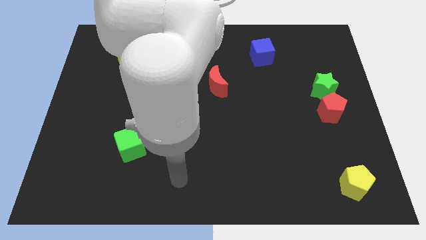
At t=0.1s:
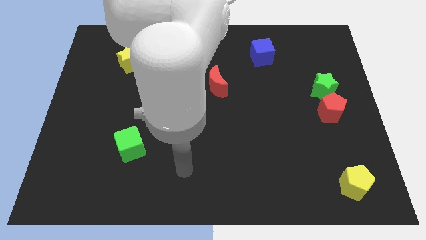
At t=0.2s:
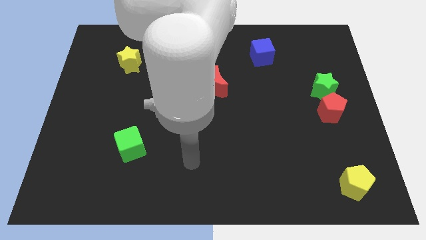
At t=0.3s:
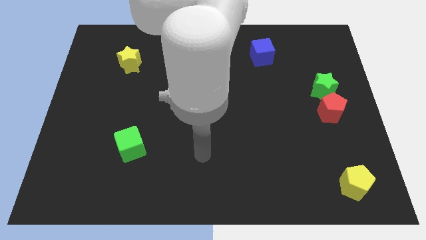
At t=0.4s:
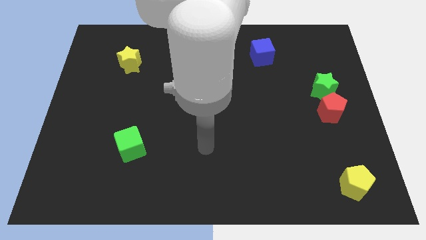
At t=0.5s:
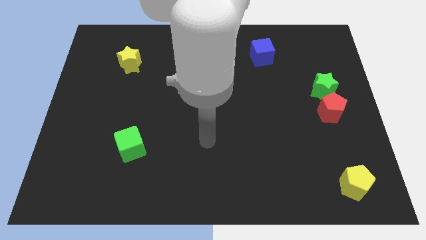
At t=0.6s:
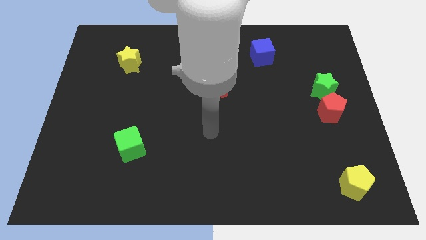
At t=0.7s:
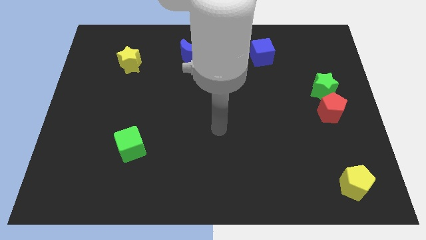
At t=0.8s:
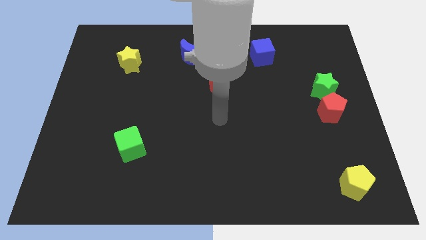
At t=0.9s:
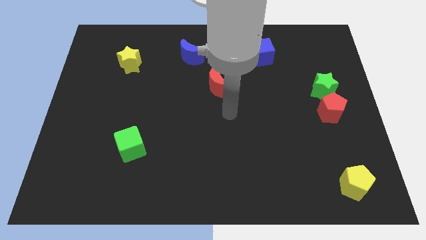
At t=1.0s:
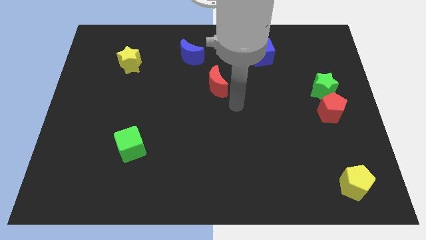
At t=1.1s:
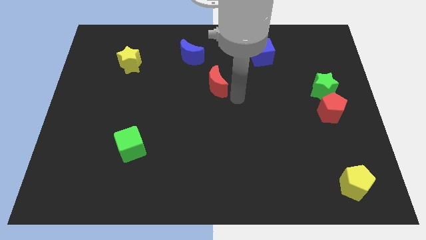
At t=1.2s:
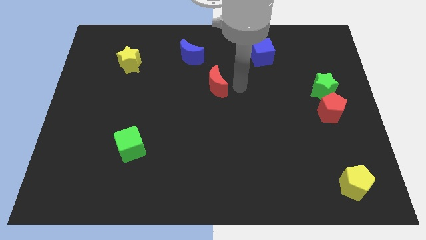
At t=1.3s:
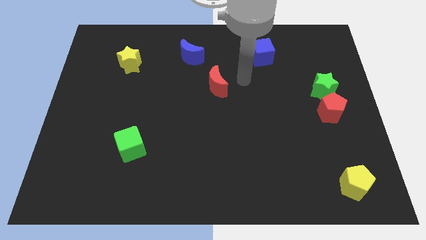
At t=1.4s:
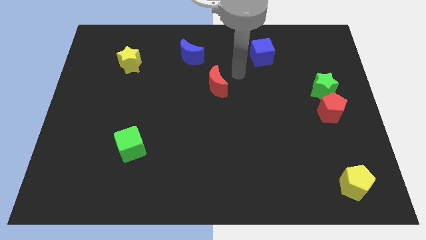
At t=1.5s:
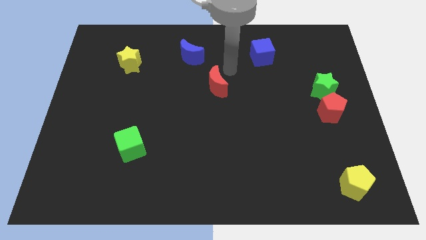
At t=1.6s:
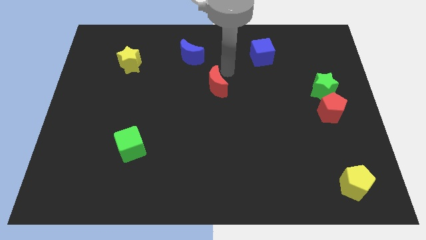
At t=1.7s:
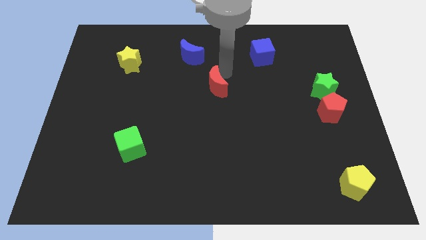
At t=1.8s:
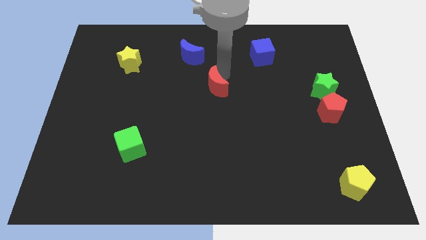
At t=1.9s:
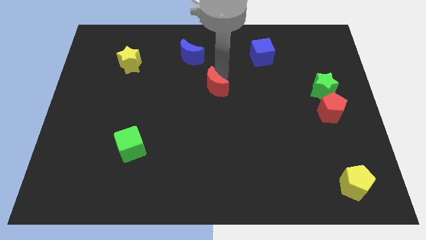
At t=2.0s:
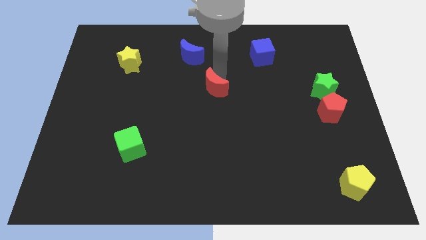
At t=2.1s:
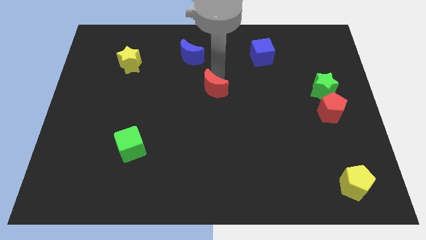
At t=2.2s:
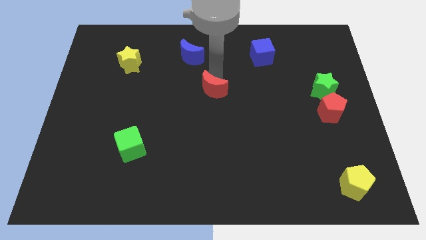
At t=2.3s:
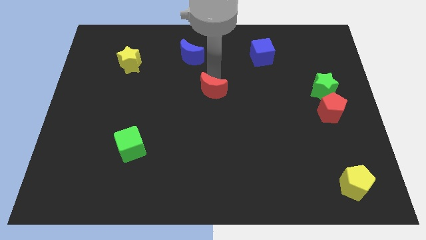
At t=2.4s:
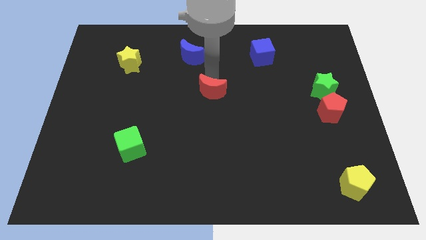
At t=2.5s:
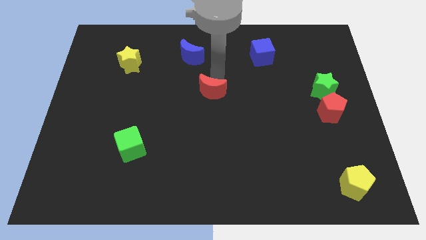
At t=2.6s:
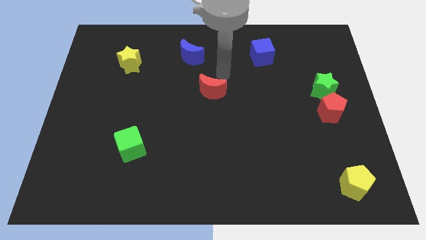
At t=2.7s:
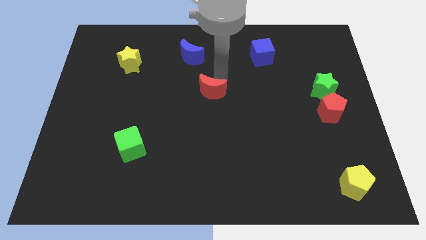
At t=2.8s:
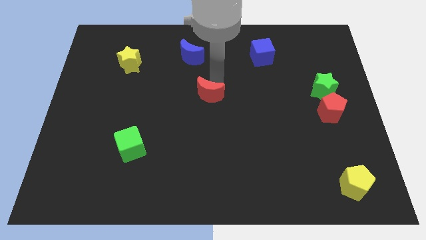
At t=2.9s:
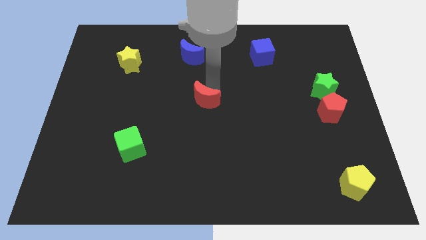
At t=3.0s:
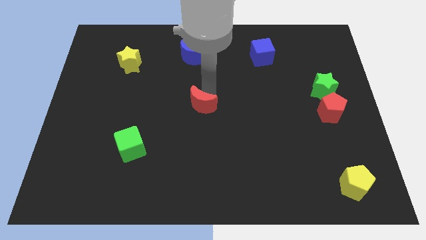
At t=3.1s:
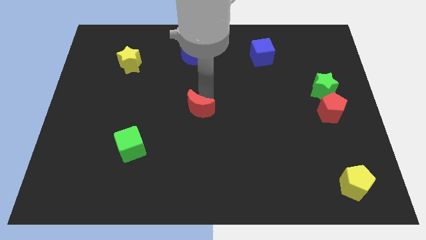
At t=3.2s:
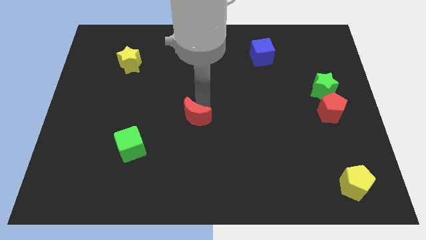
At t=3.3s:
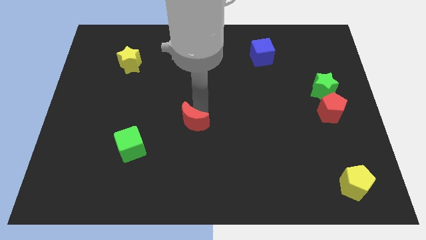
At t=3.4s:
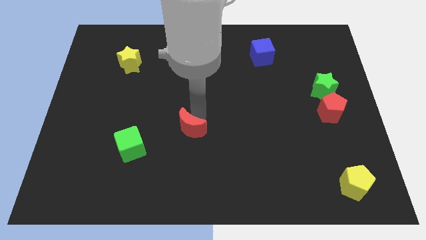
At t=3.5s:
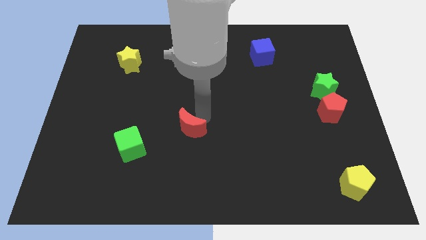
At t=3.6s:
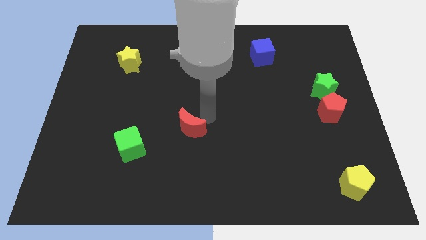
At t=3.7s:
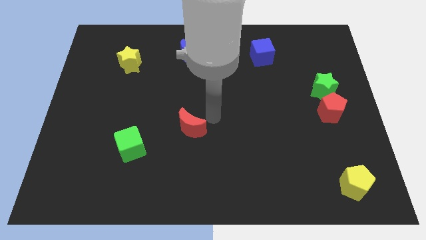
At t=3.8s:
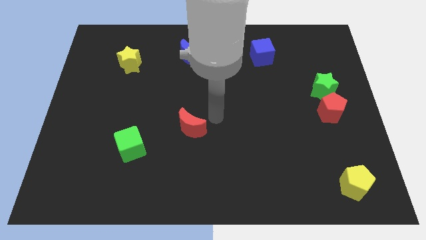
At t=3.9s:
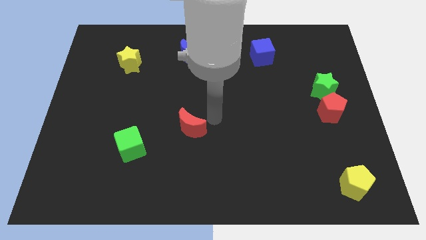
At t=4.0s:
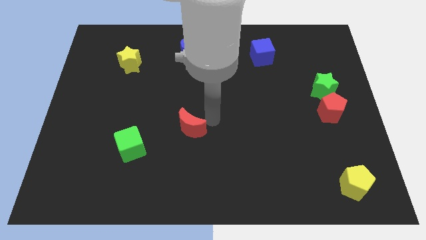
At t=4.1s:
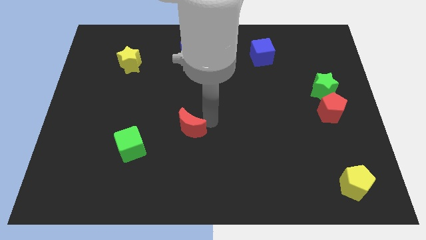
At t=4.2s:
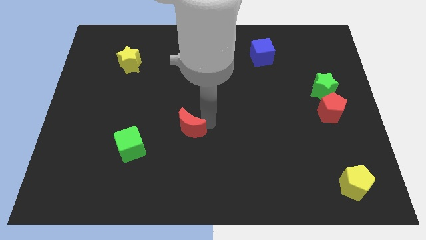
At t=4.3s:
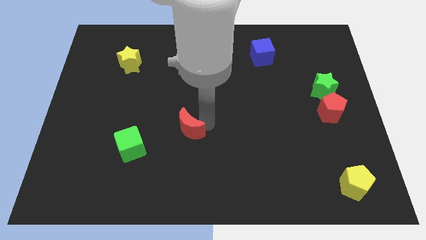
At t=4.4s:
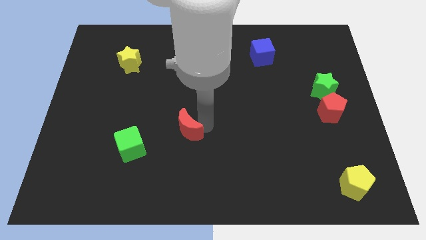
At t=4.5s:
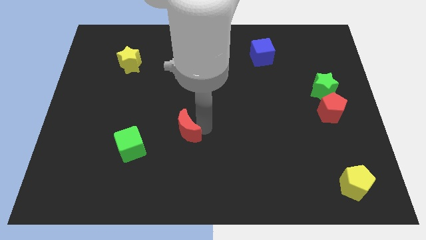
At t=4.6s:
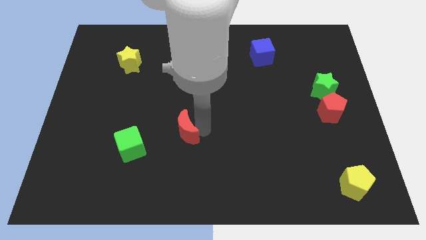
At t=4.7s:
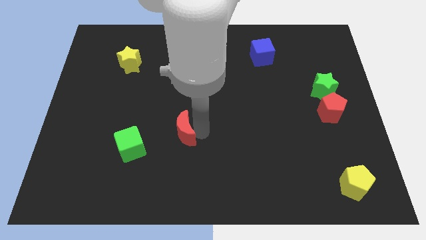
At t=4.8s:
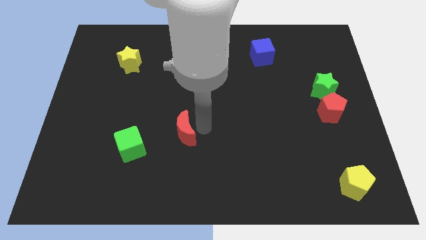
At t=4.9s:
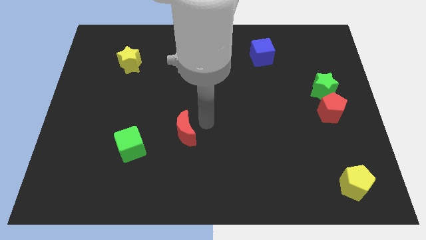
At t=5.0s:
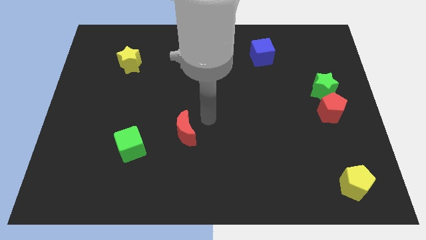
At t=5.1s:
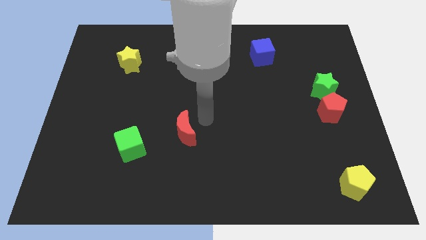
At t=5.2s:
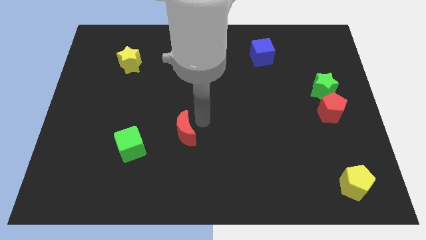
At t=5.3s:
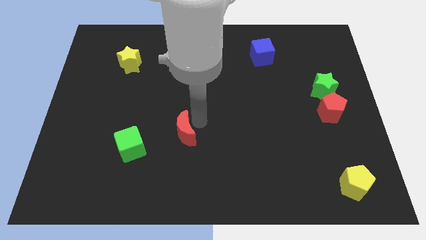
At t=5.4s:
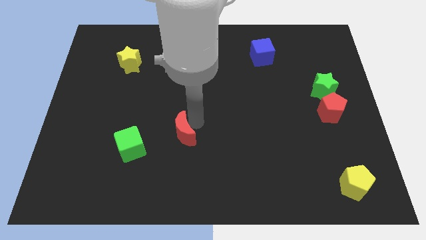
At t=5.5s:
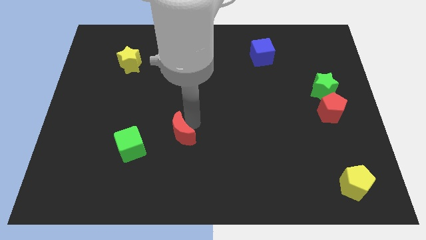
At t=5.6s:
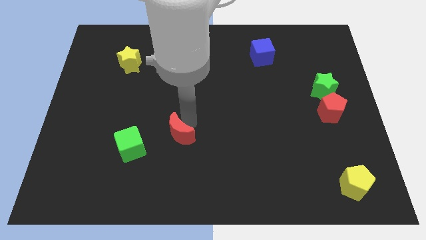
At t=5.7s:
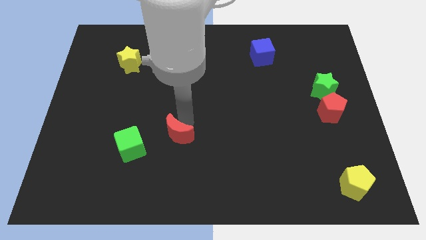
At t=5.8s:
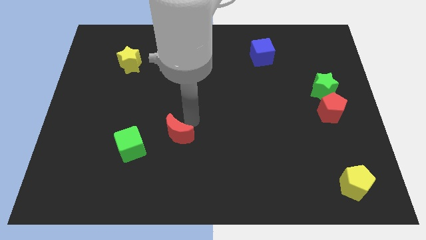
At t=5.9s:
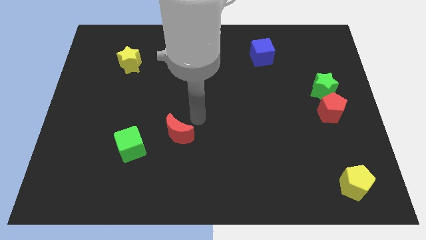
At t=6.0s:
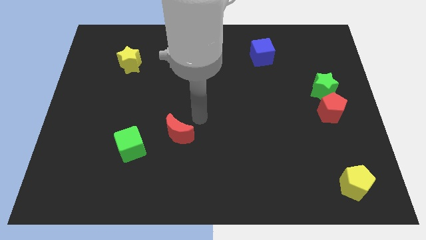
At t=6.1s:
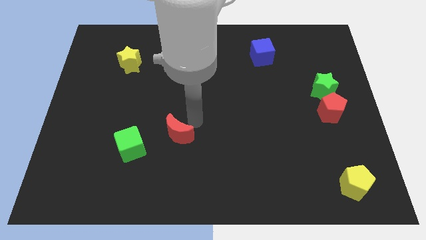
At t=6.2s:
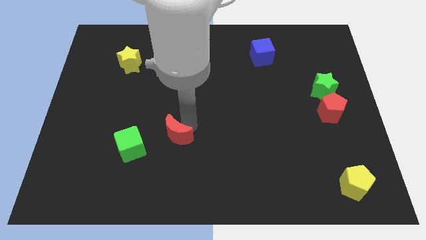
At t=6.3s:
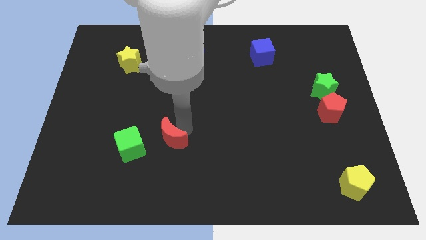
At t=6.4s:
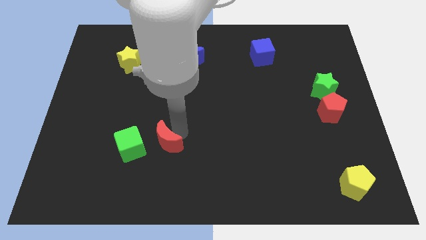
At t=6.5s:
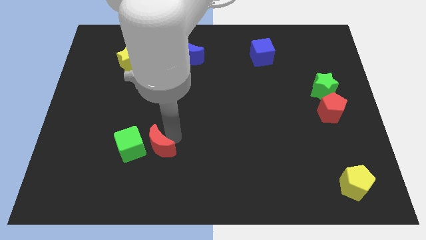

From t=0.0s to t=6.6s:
push the red moon downwards and left

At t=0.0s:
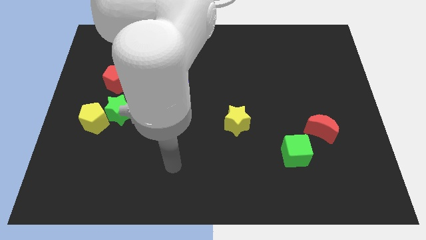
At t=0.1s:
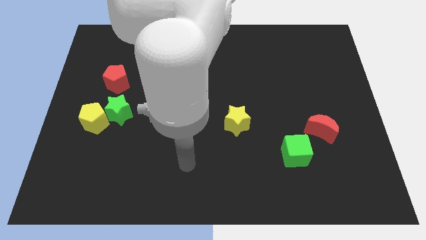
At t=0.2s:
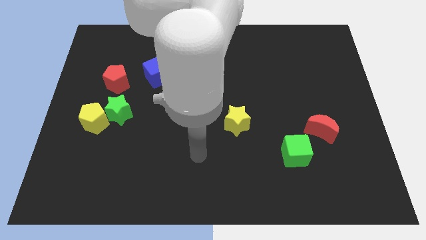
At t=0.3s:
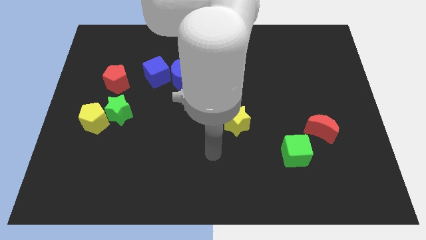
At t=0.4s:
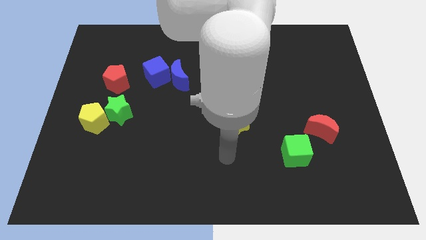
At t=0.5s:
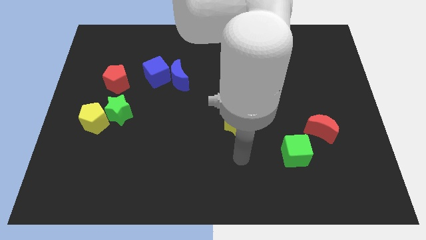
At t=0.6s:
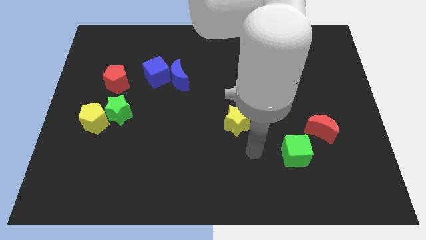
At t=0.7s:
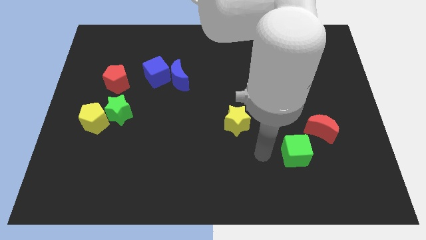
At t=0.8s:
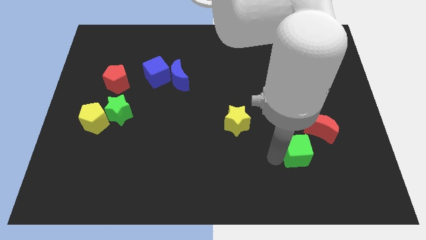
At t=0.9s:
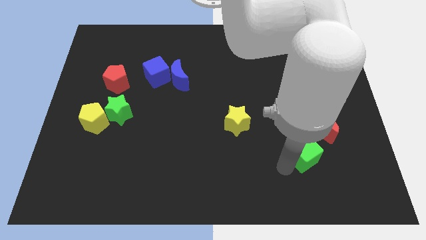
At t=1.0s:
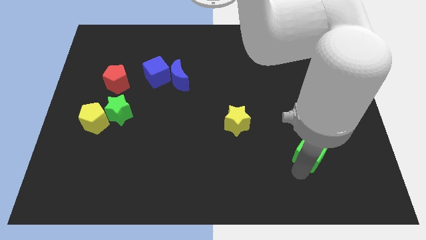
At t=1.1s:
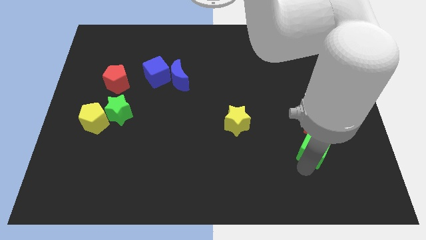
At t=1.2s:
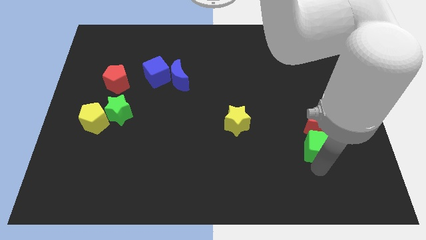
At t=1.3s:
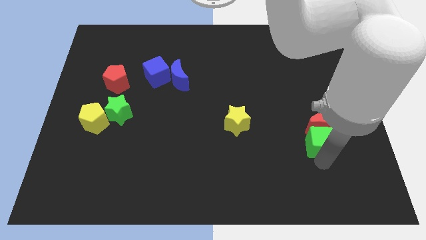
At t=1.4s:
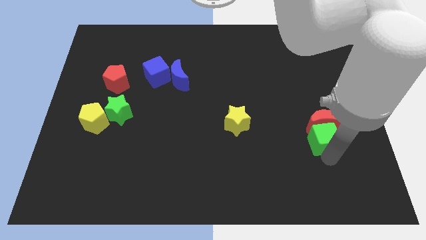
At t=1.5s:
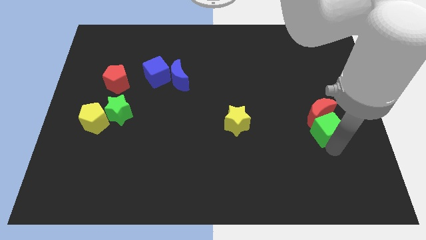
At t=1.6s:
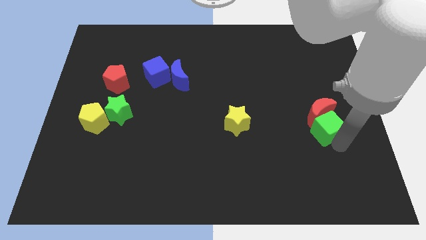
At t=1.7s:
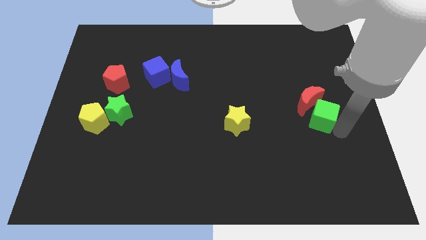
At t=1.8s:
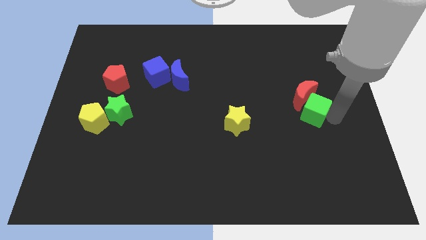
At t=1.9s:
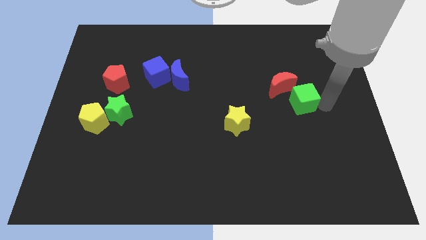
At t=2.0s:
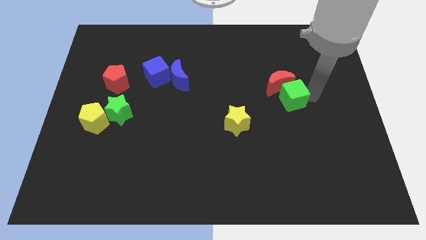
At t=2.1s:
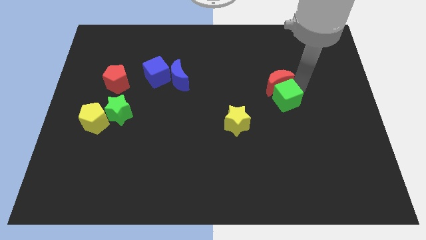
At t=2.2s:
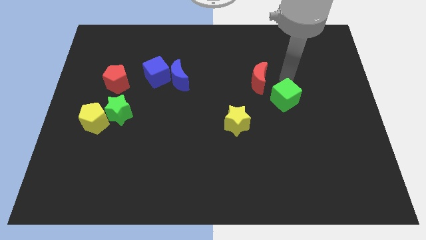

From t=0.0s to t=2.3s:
move the red moon upwards and left
